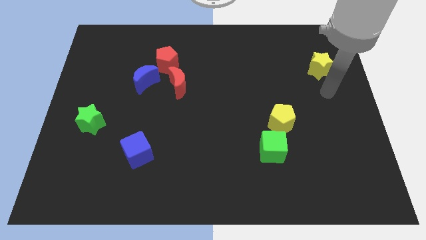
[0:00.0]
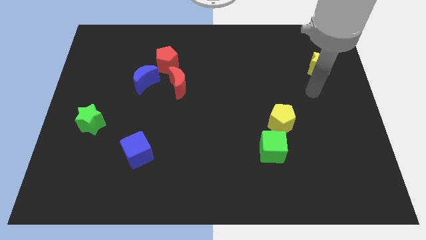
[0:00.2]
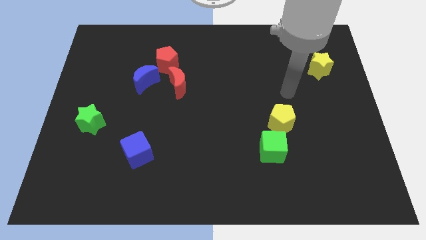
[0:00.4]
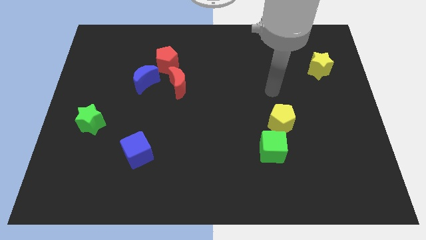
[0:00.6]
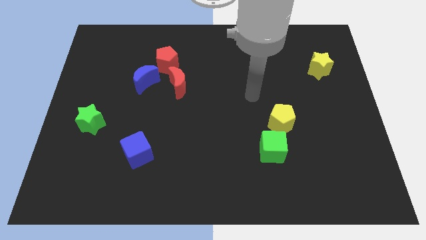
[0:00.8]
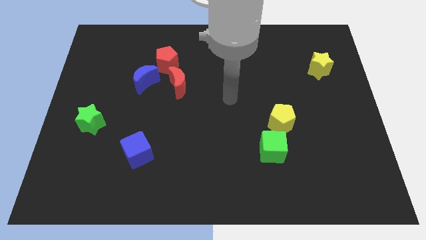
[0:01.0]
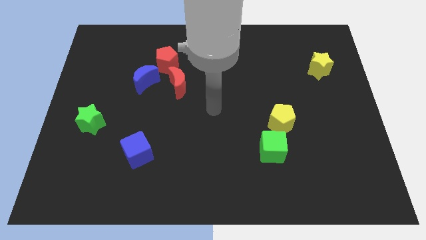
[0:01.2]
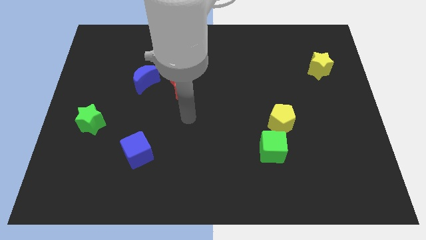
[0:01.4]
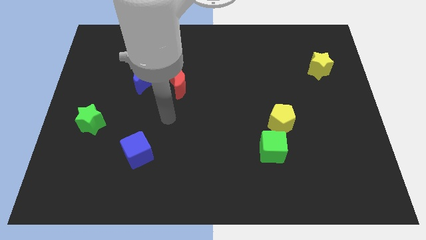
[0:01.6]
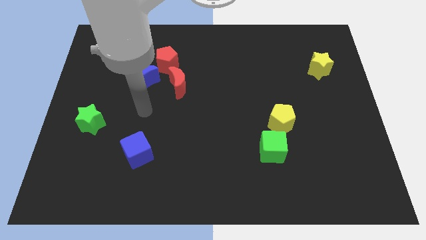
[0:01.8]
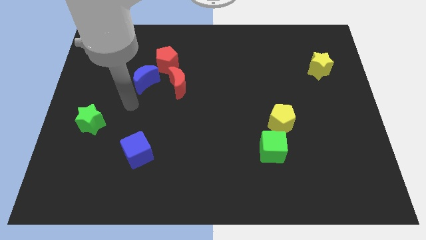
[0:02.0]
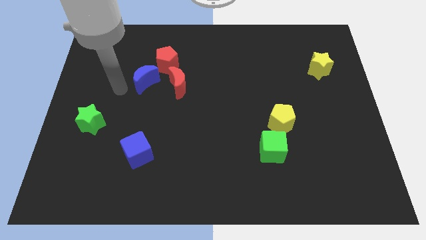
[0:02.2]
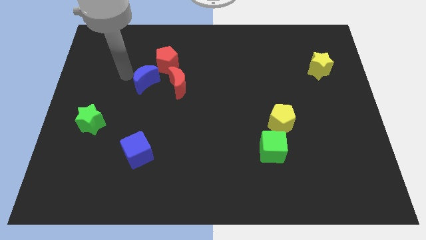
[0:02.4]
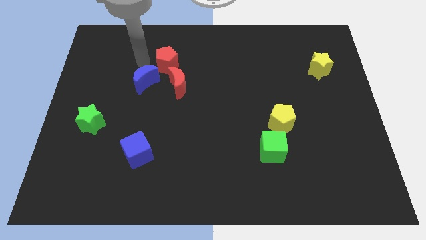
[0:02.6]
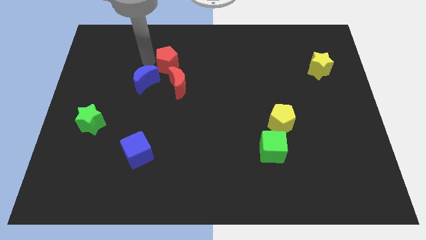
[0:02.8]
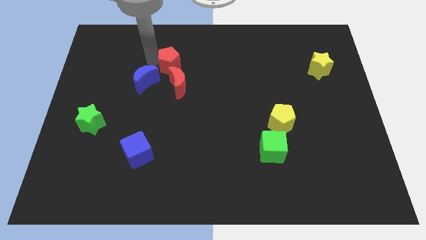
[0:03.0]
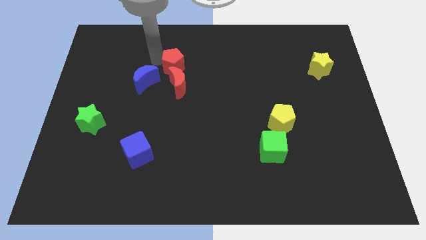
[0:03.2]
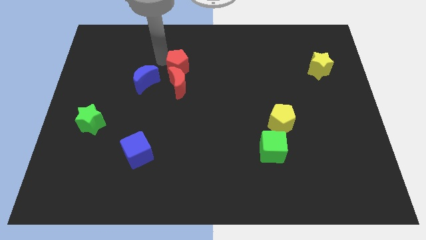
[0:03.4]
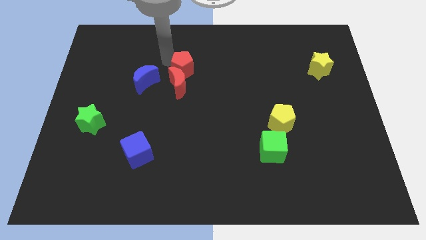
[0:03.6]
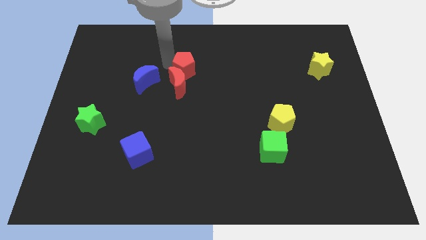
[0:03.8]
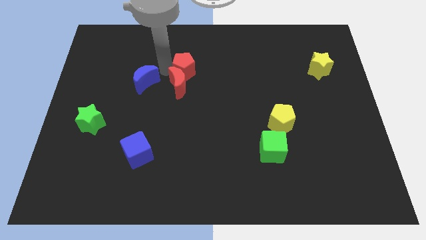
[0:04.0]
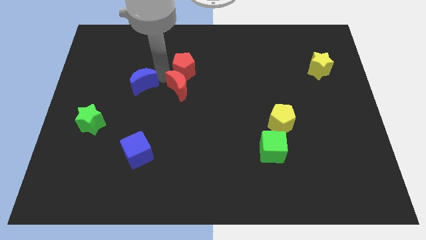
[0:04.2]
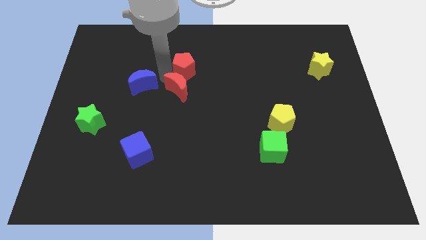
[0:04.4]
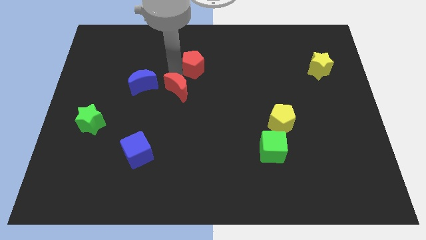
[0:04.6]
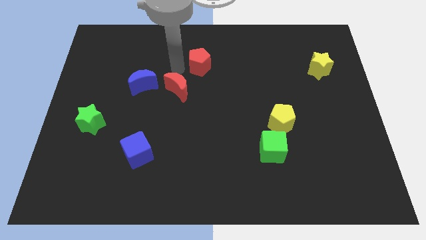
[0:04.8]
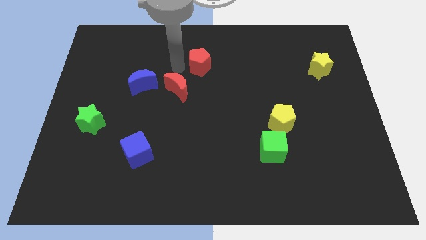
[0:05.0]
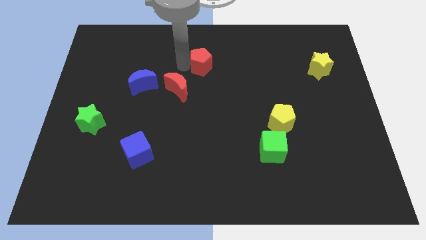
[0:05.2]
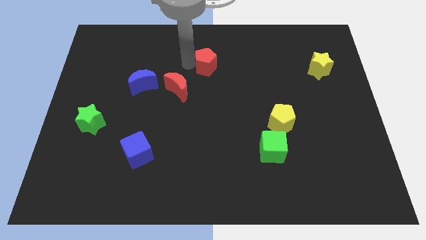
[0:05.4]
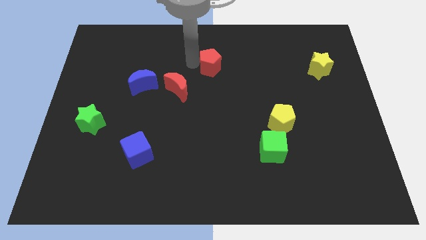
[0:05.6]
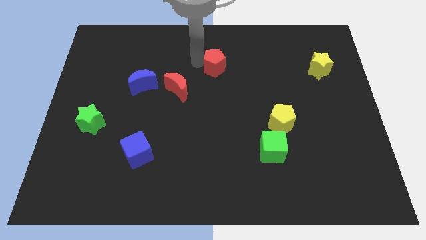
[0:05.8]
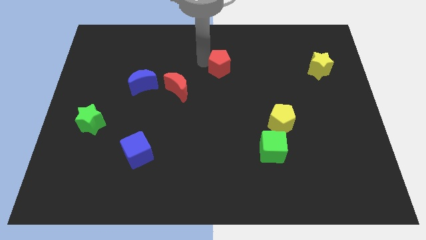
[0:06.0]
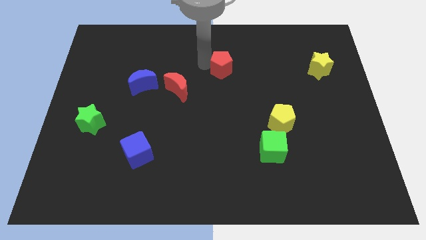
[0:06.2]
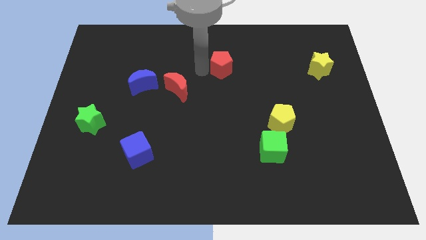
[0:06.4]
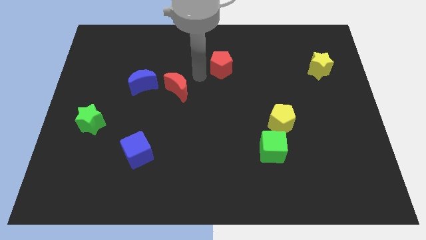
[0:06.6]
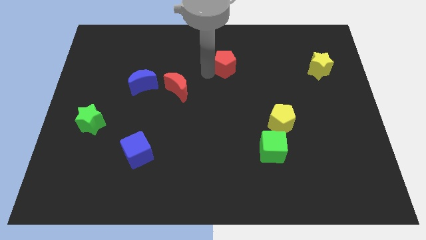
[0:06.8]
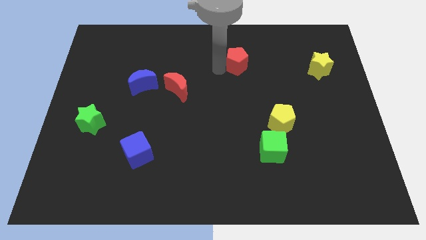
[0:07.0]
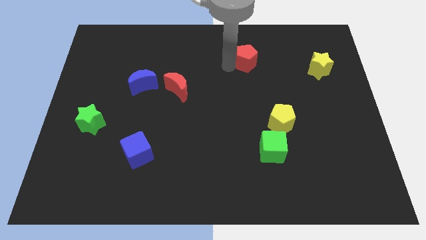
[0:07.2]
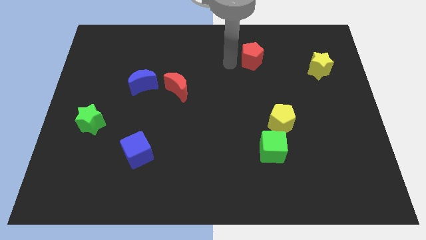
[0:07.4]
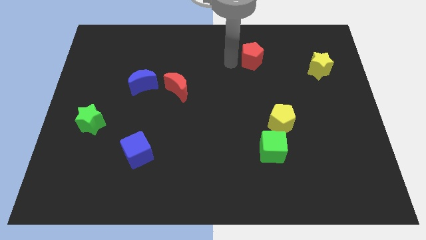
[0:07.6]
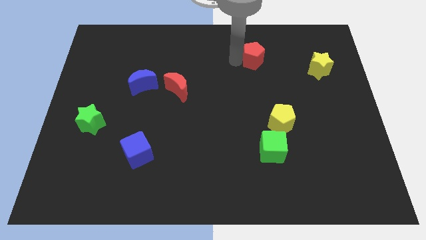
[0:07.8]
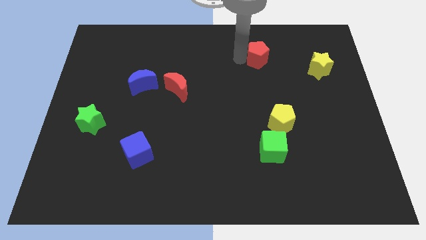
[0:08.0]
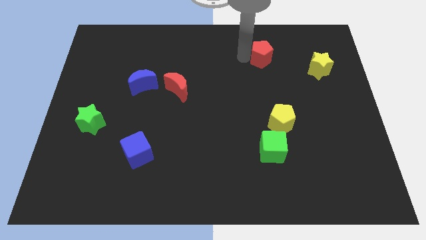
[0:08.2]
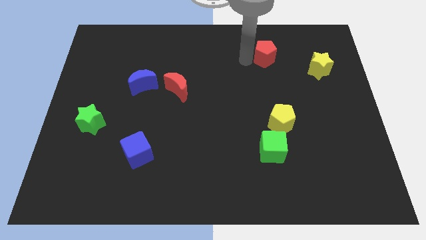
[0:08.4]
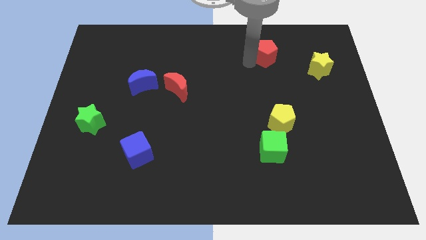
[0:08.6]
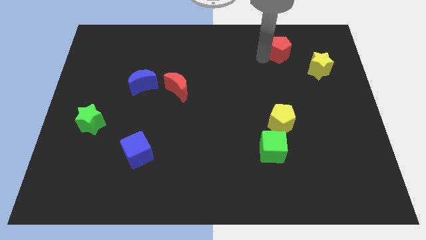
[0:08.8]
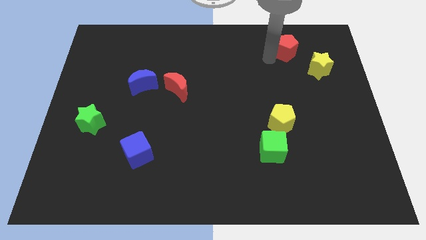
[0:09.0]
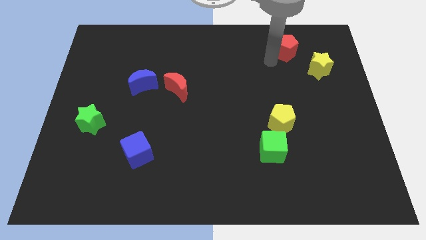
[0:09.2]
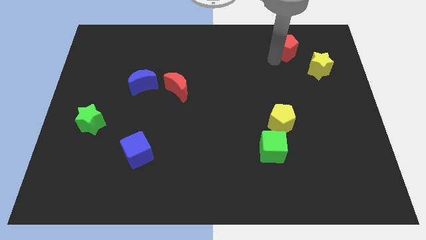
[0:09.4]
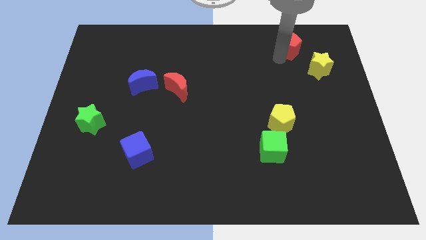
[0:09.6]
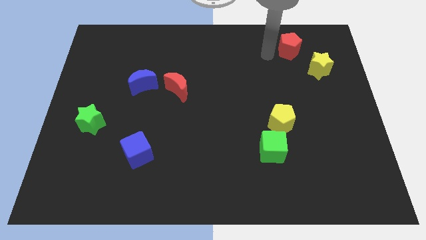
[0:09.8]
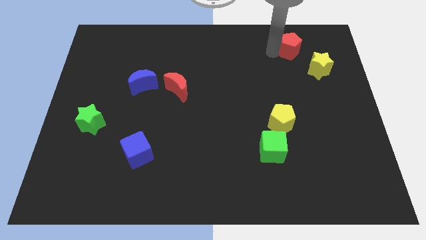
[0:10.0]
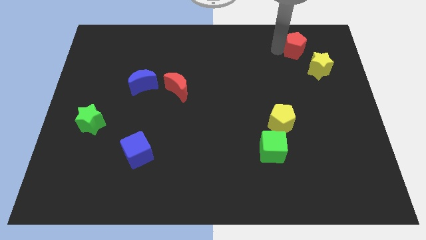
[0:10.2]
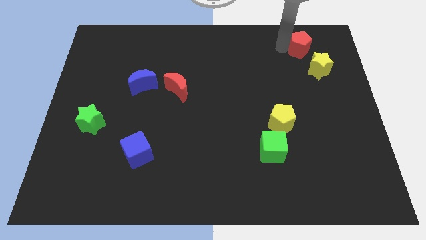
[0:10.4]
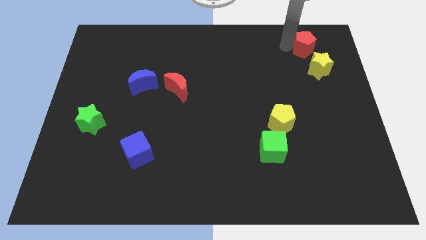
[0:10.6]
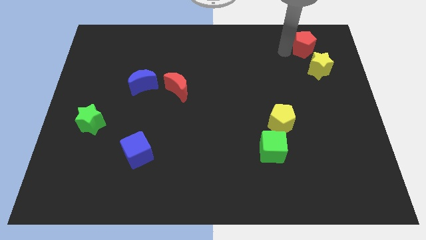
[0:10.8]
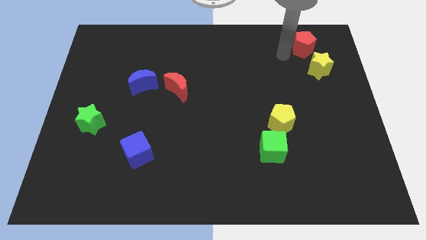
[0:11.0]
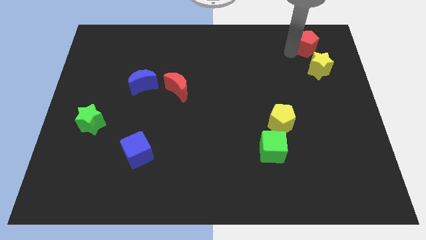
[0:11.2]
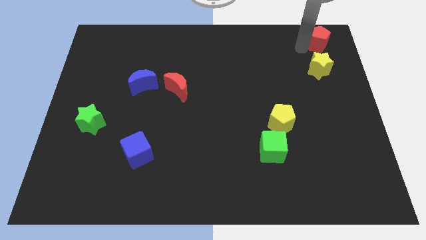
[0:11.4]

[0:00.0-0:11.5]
push the red pentagon to the top right of the board

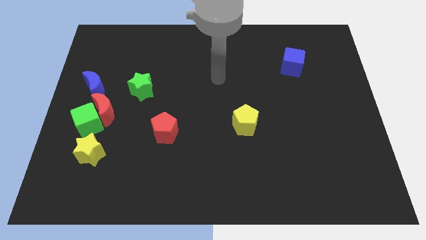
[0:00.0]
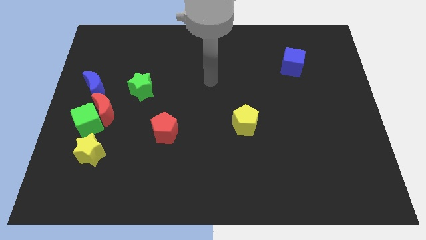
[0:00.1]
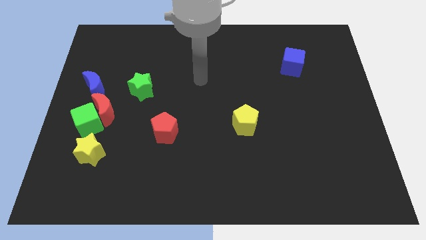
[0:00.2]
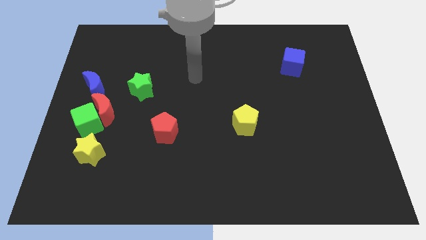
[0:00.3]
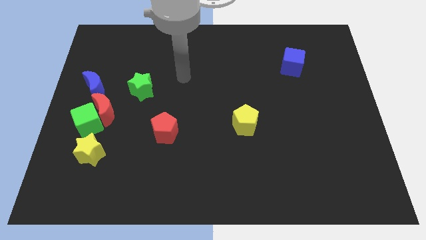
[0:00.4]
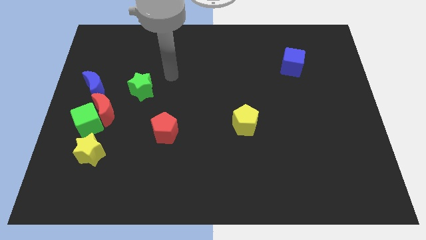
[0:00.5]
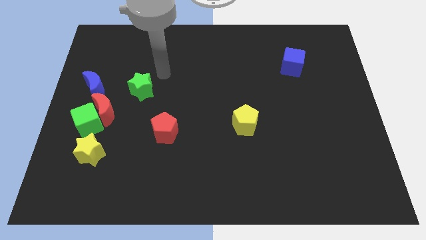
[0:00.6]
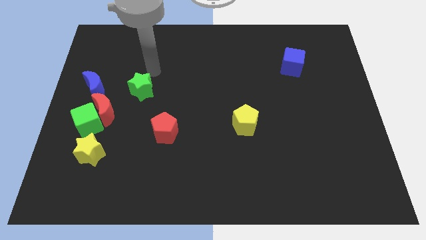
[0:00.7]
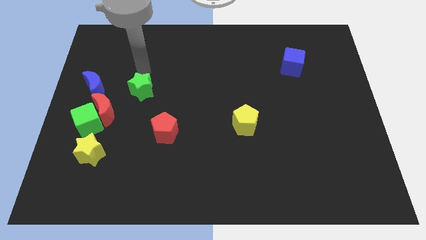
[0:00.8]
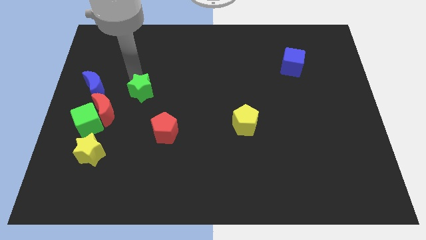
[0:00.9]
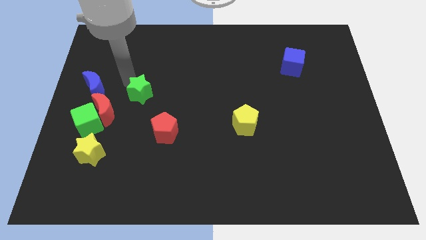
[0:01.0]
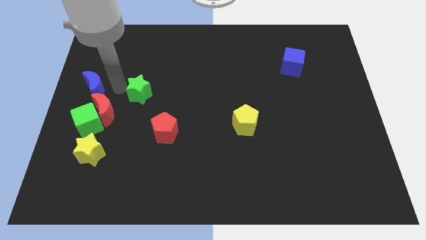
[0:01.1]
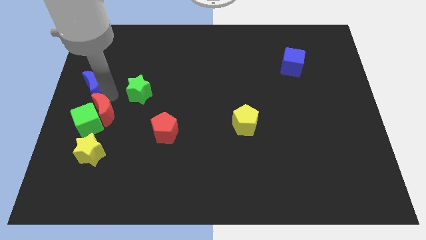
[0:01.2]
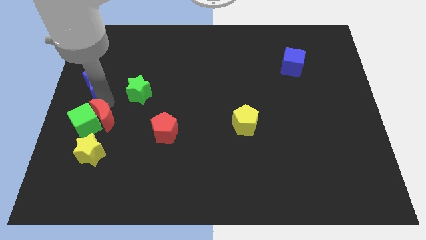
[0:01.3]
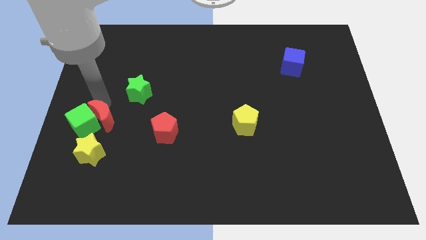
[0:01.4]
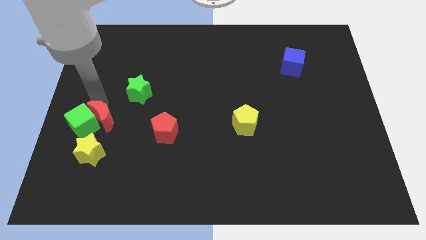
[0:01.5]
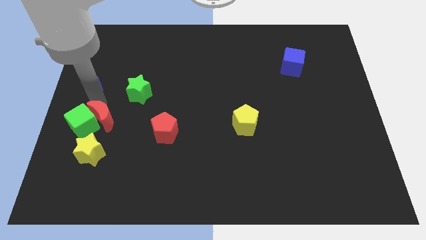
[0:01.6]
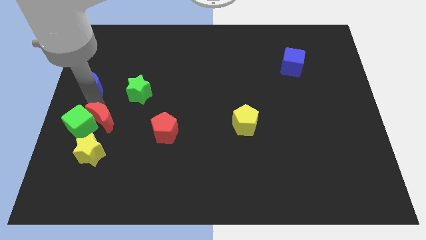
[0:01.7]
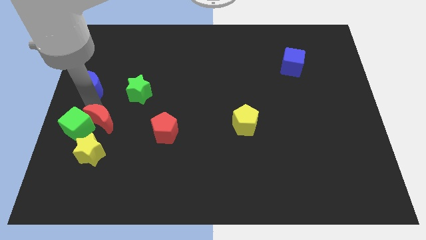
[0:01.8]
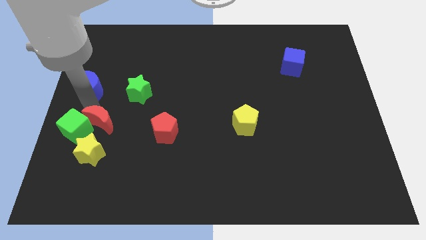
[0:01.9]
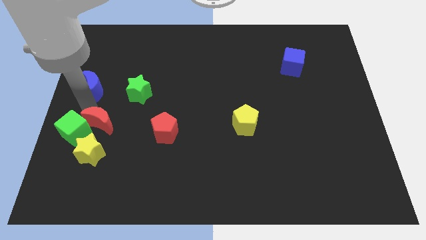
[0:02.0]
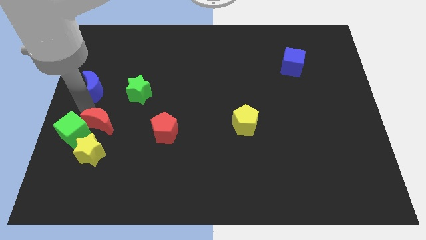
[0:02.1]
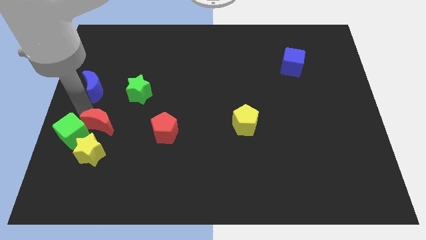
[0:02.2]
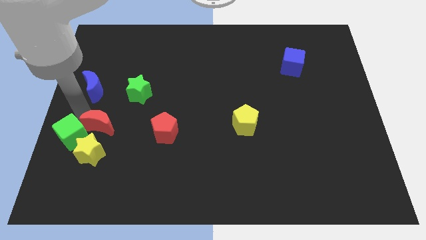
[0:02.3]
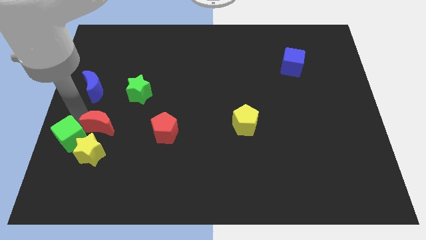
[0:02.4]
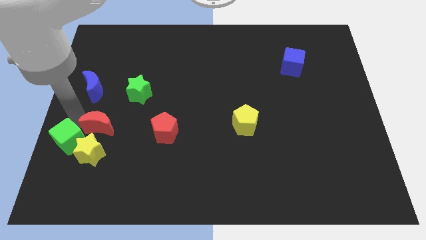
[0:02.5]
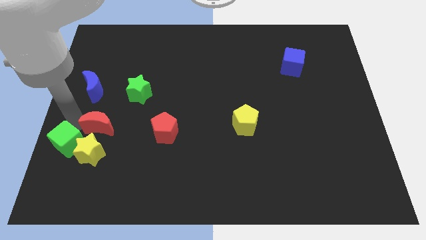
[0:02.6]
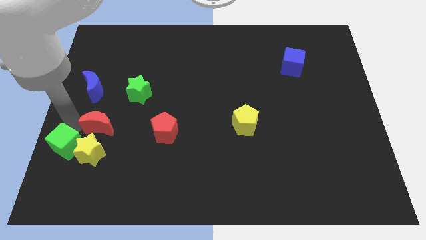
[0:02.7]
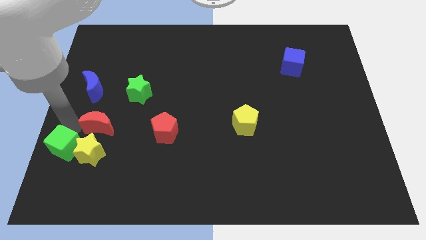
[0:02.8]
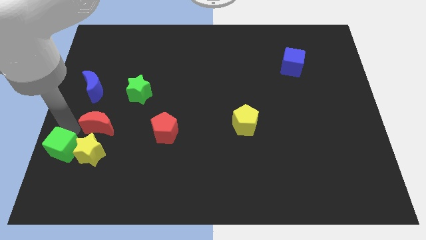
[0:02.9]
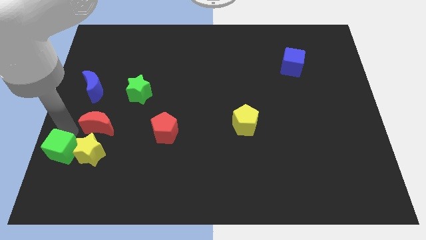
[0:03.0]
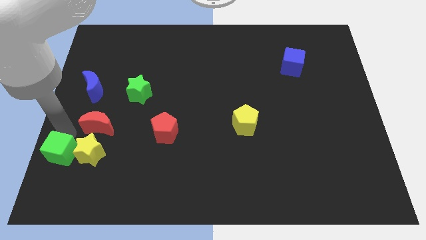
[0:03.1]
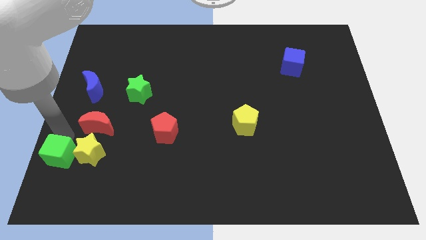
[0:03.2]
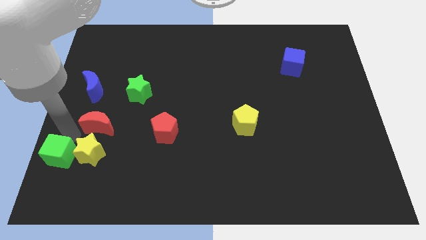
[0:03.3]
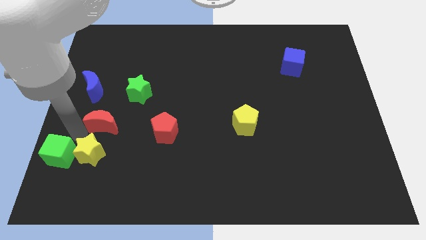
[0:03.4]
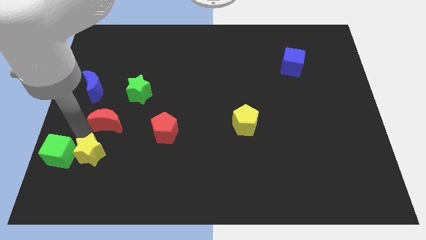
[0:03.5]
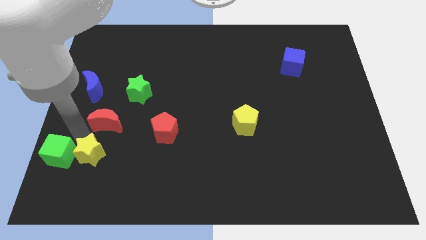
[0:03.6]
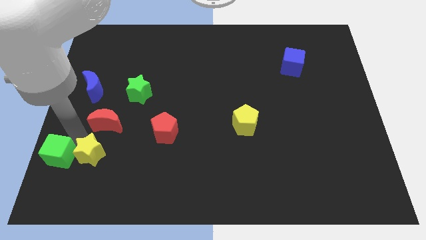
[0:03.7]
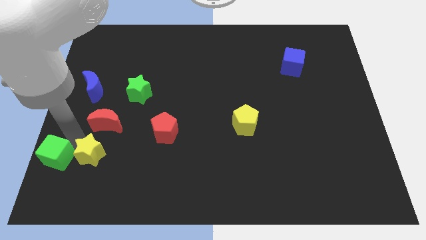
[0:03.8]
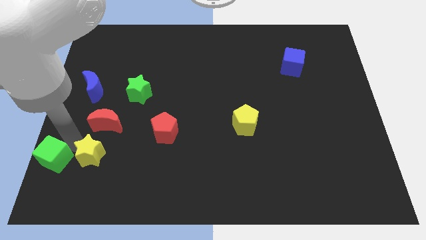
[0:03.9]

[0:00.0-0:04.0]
move the green cube to the bottom left corner
